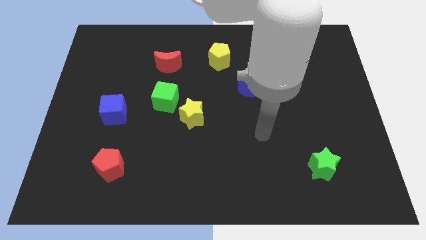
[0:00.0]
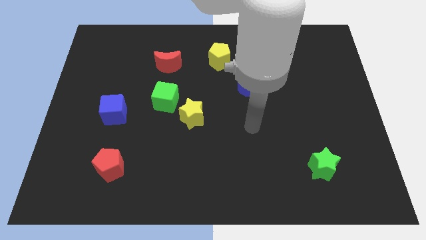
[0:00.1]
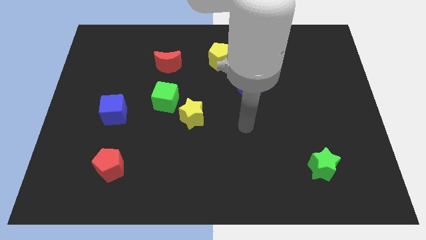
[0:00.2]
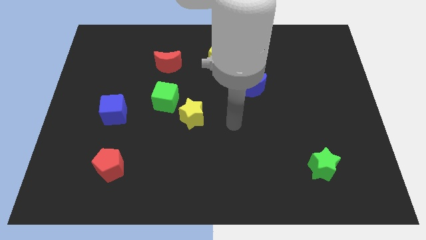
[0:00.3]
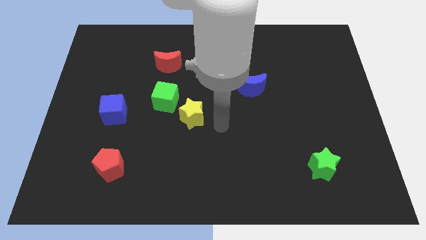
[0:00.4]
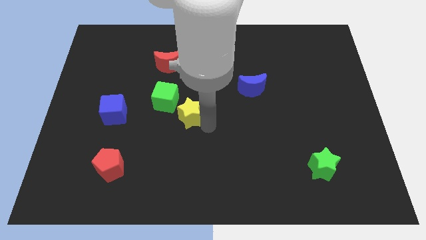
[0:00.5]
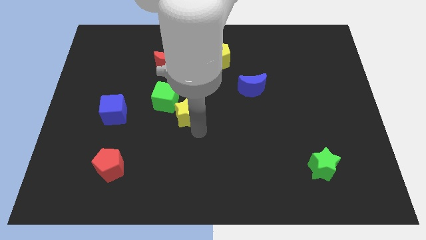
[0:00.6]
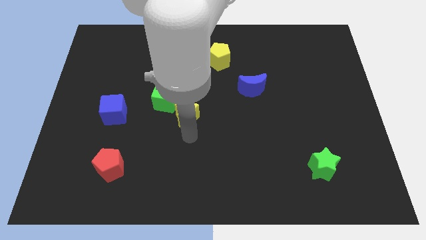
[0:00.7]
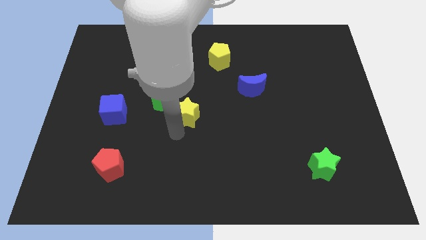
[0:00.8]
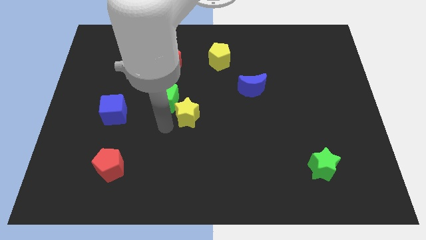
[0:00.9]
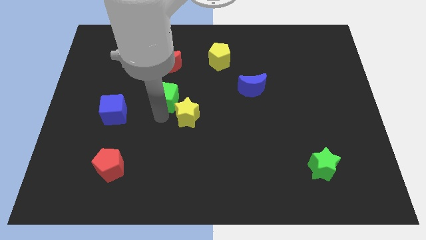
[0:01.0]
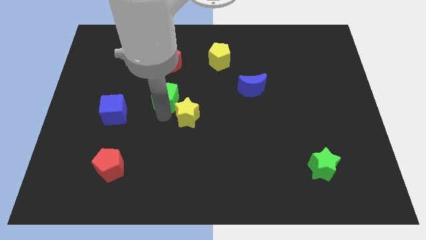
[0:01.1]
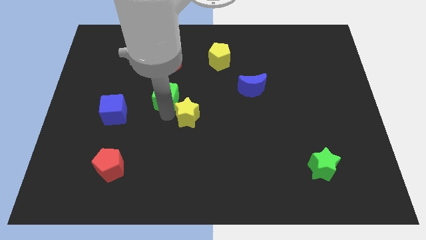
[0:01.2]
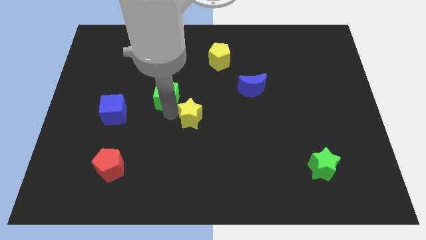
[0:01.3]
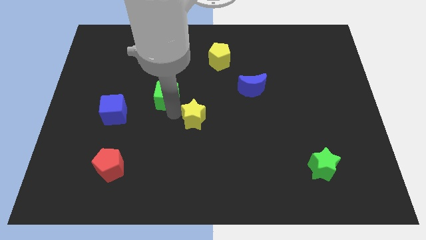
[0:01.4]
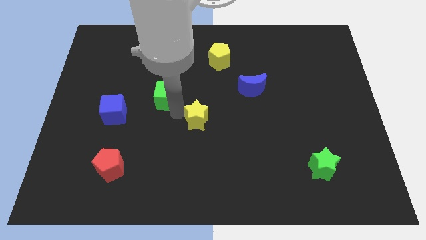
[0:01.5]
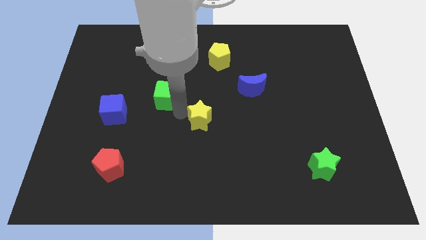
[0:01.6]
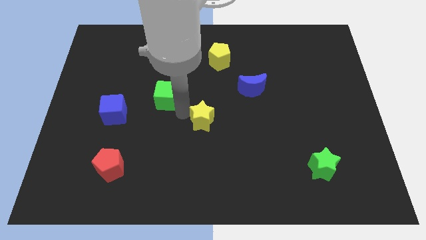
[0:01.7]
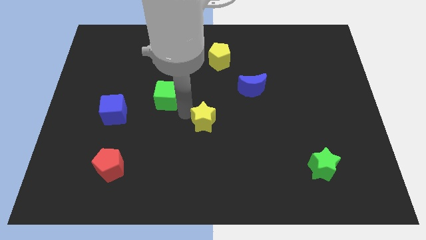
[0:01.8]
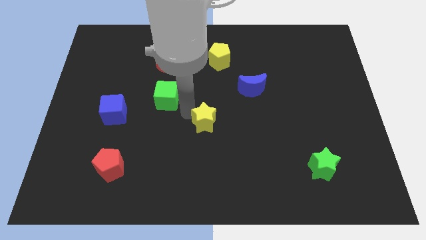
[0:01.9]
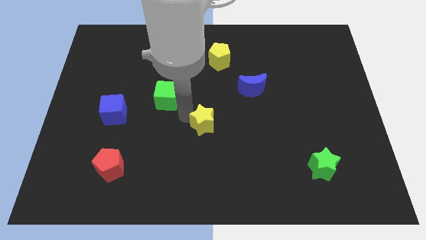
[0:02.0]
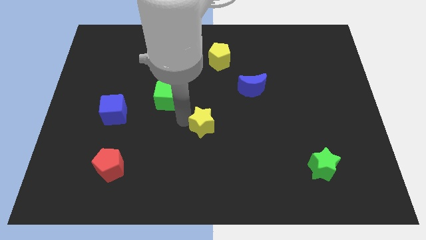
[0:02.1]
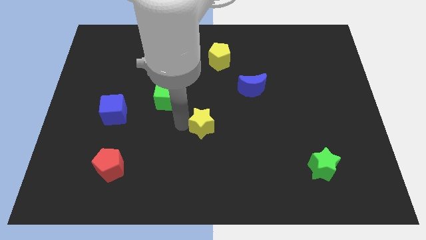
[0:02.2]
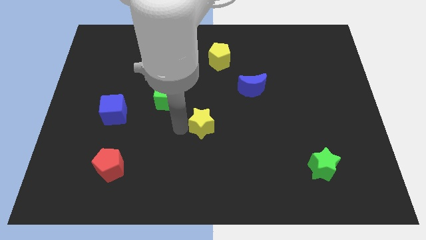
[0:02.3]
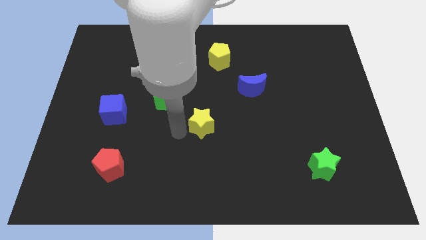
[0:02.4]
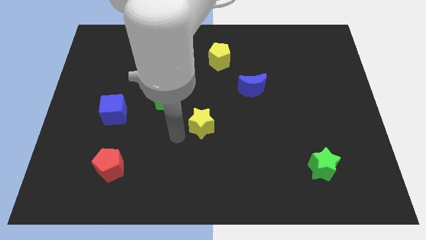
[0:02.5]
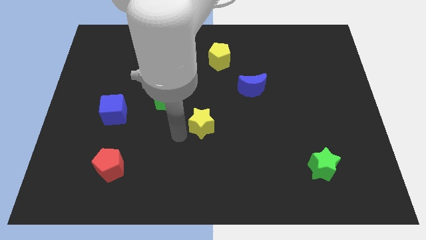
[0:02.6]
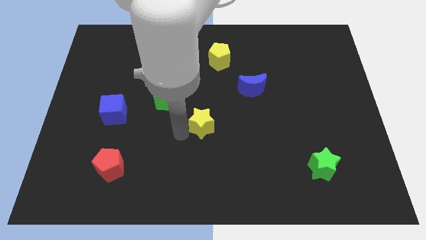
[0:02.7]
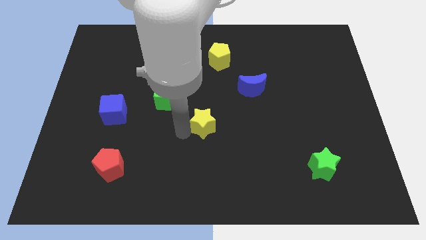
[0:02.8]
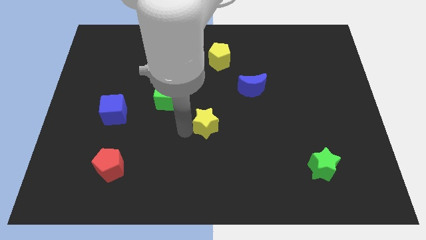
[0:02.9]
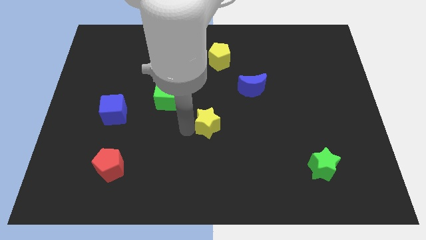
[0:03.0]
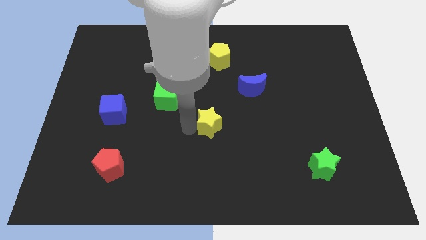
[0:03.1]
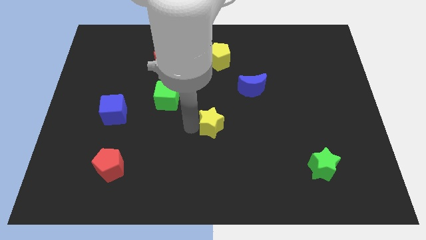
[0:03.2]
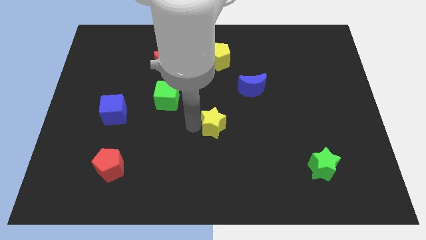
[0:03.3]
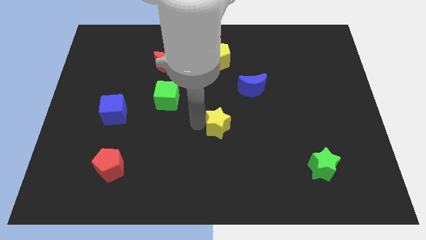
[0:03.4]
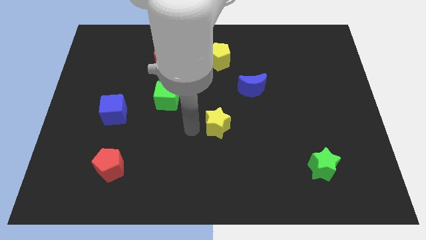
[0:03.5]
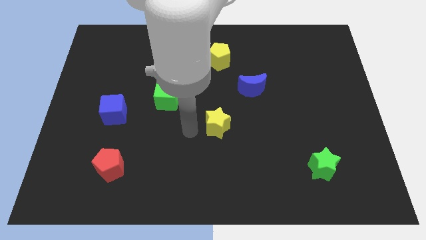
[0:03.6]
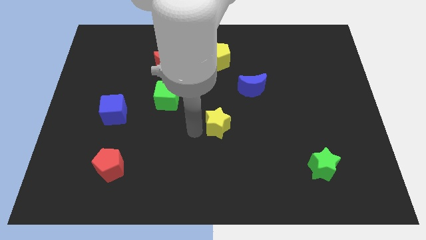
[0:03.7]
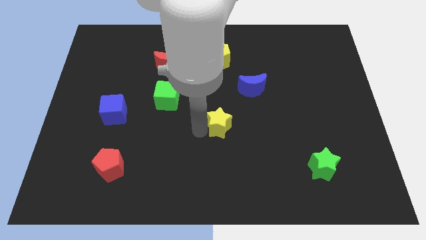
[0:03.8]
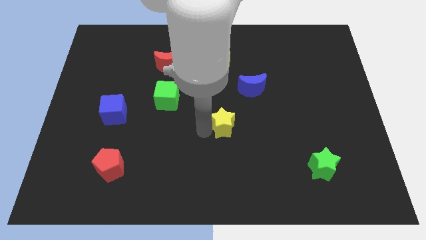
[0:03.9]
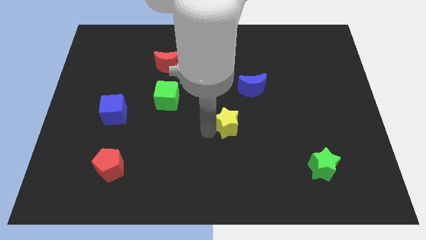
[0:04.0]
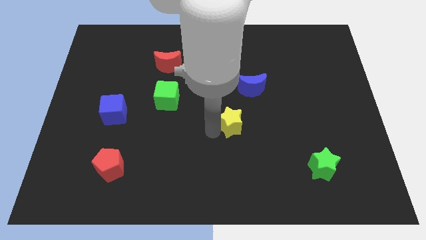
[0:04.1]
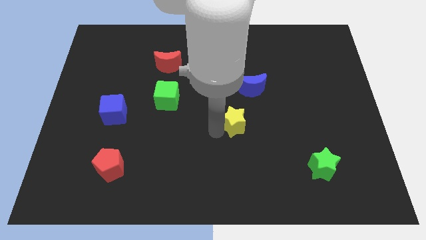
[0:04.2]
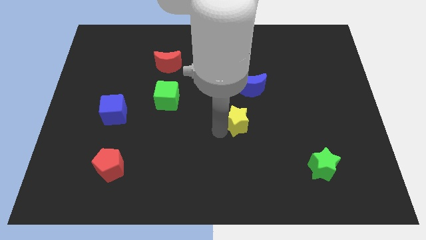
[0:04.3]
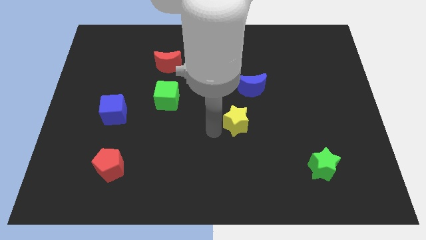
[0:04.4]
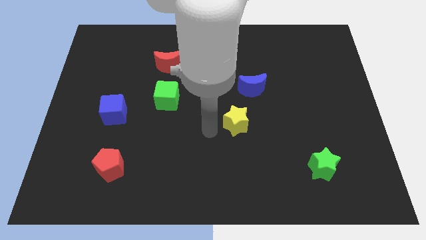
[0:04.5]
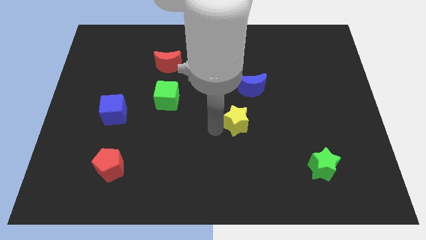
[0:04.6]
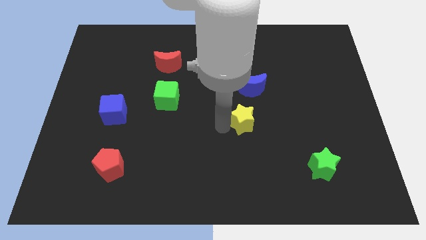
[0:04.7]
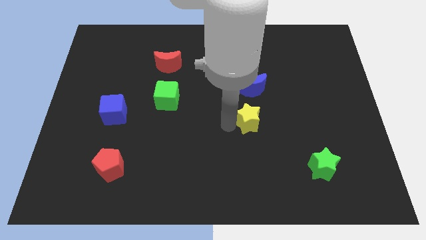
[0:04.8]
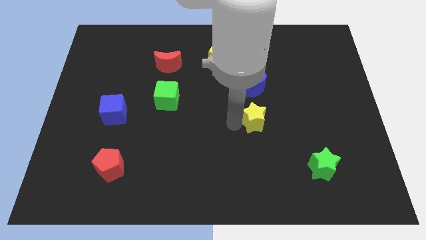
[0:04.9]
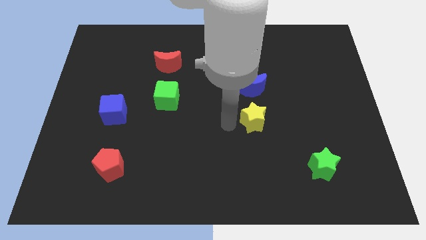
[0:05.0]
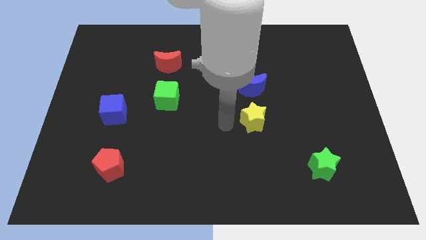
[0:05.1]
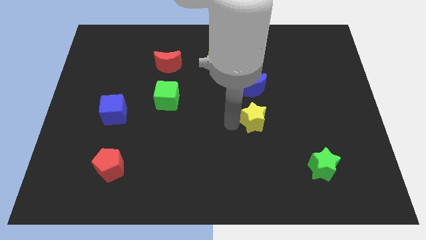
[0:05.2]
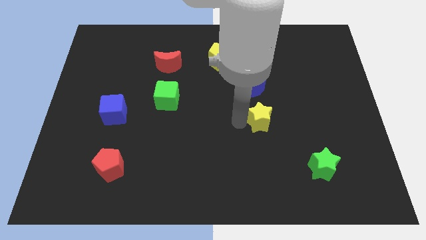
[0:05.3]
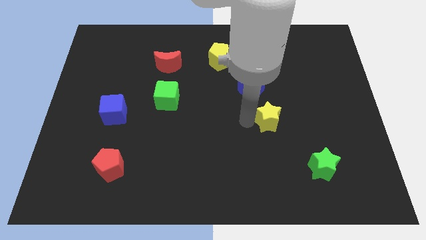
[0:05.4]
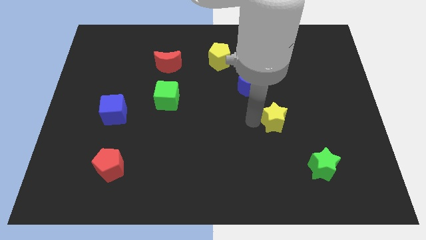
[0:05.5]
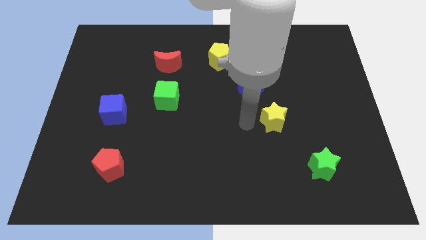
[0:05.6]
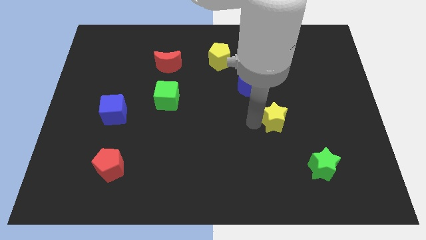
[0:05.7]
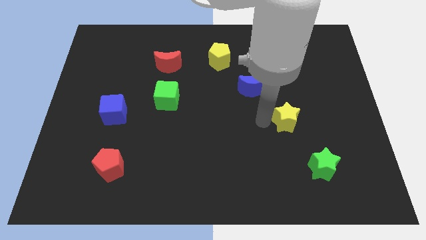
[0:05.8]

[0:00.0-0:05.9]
move the yellow star right

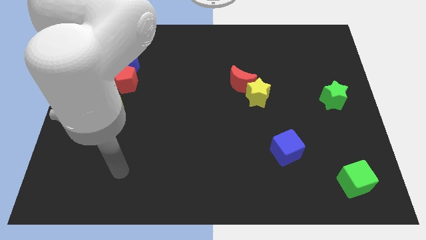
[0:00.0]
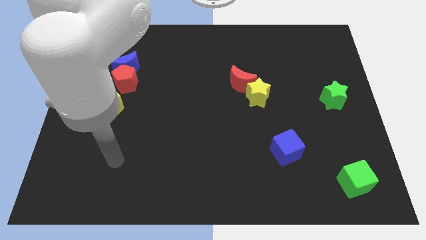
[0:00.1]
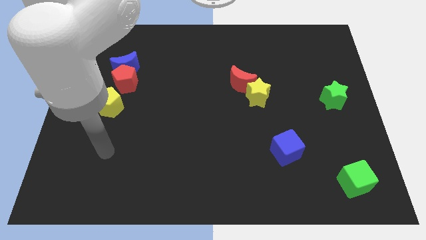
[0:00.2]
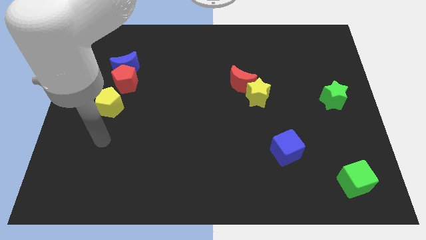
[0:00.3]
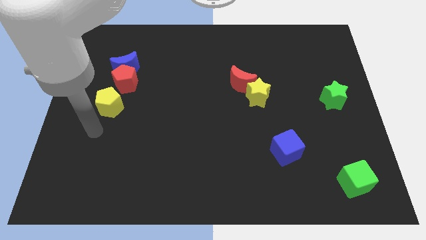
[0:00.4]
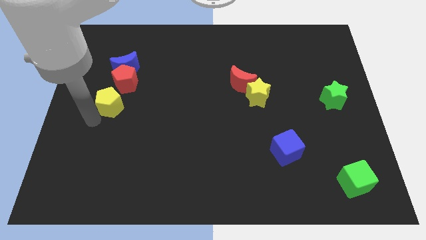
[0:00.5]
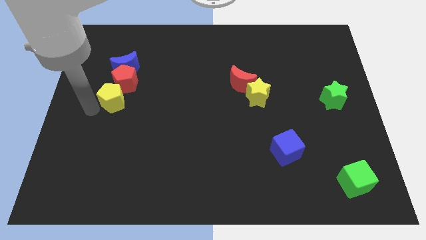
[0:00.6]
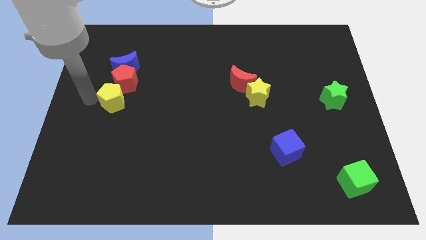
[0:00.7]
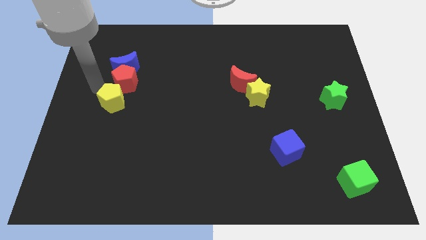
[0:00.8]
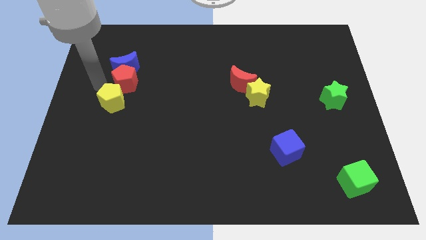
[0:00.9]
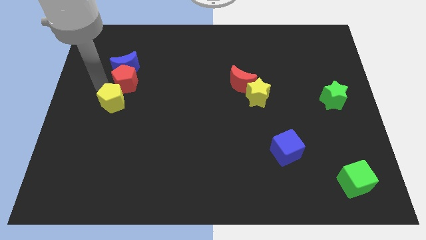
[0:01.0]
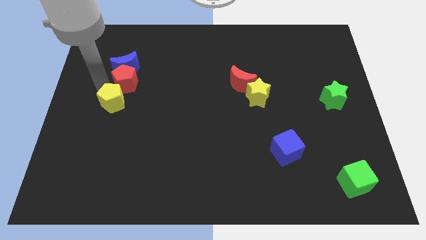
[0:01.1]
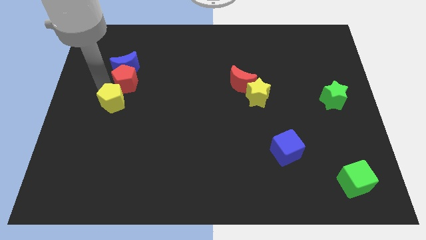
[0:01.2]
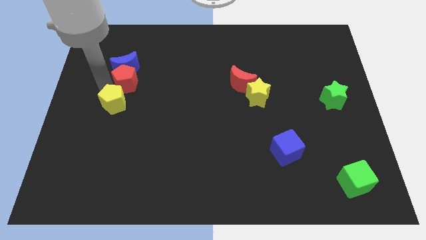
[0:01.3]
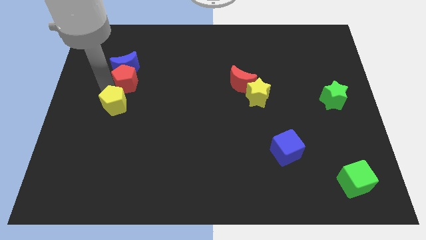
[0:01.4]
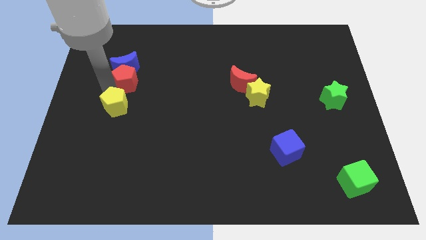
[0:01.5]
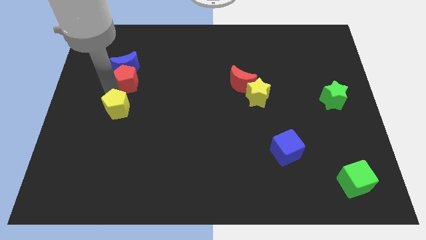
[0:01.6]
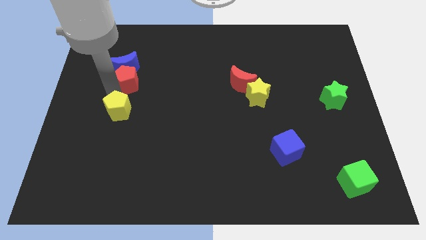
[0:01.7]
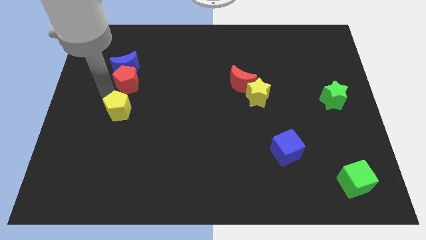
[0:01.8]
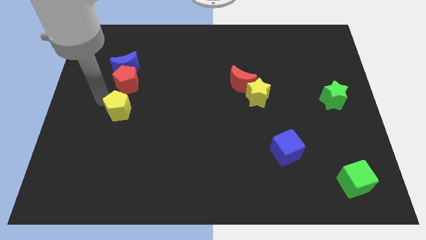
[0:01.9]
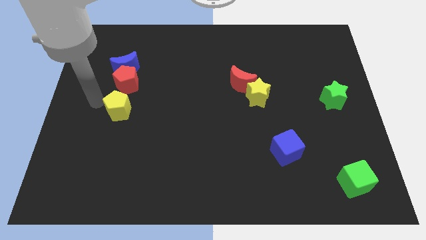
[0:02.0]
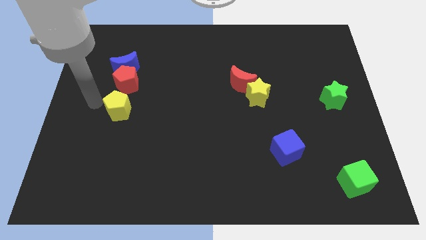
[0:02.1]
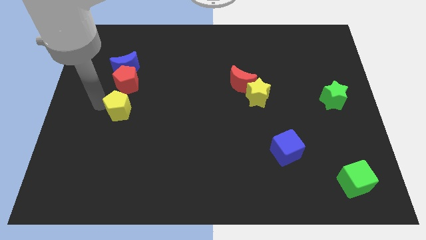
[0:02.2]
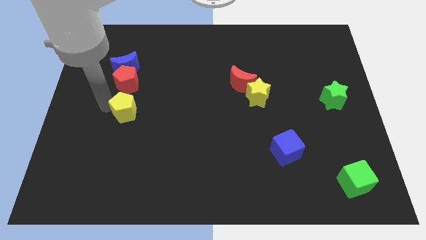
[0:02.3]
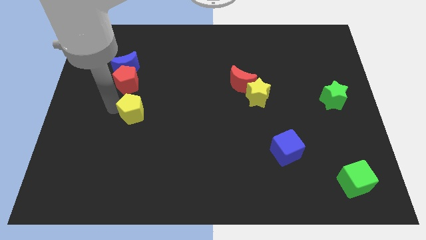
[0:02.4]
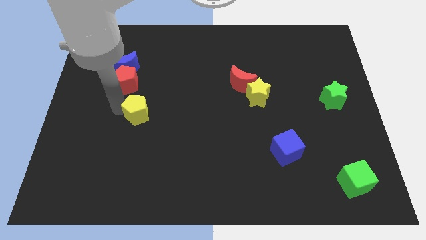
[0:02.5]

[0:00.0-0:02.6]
slightly move the yellow pentagon to the right
